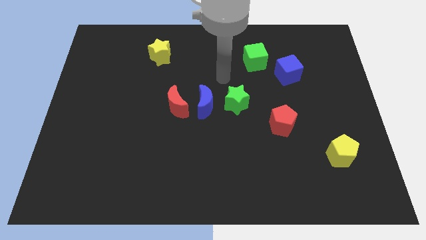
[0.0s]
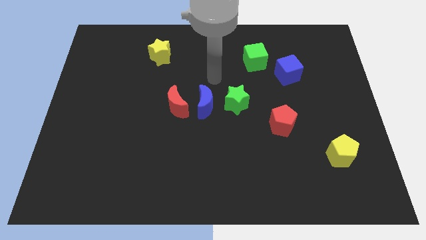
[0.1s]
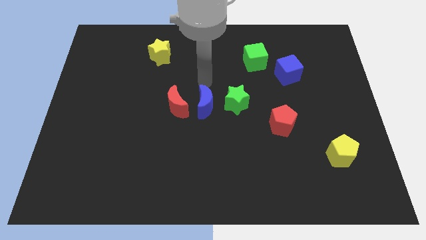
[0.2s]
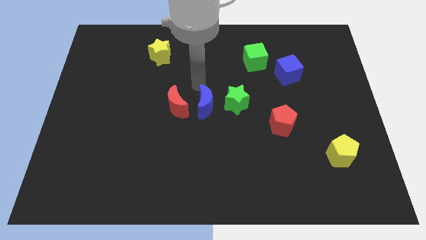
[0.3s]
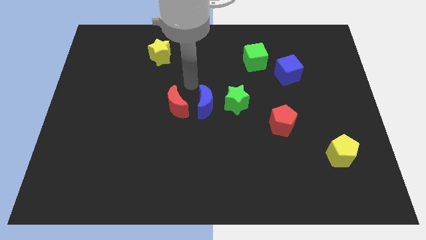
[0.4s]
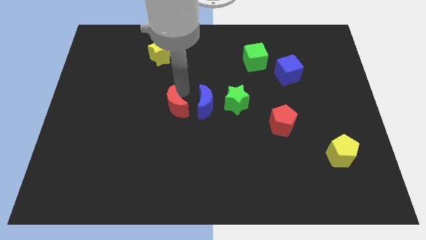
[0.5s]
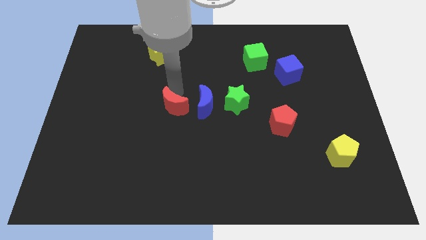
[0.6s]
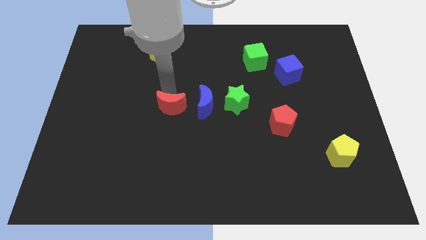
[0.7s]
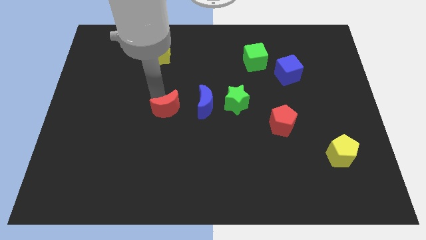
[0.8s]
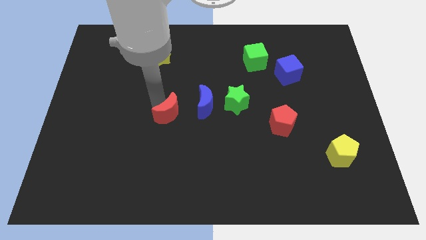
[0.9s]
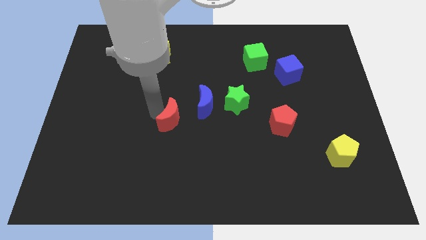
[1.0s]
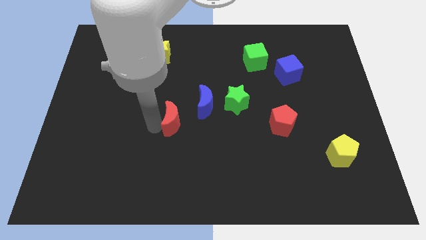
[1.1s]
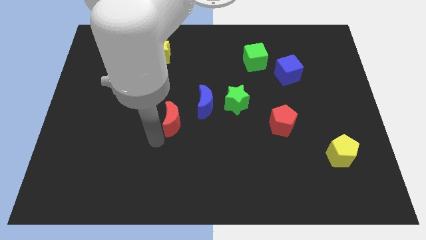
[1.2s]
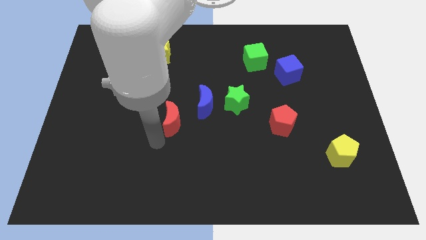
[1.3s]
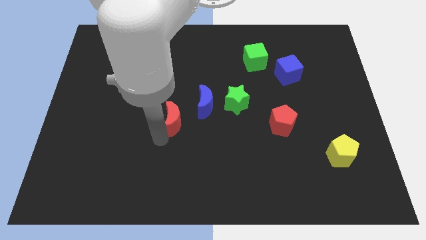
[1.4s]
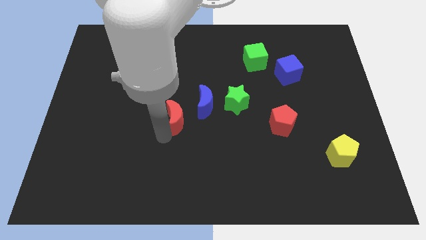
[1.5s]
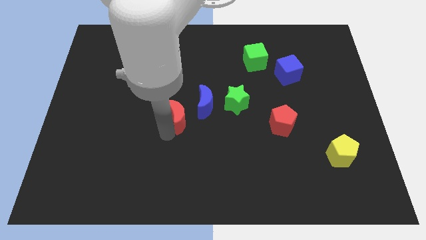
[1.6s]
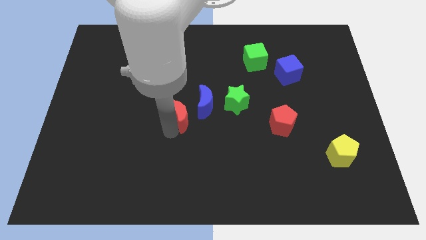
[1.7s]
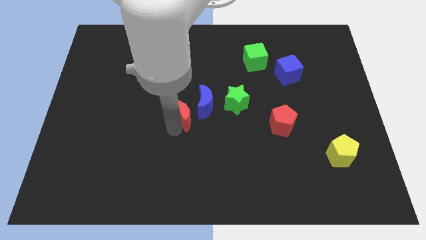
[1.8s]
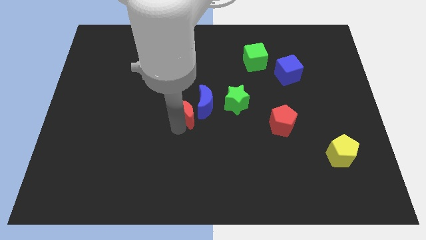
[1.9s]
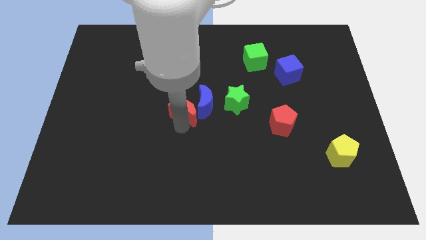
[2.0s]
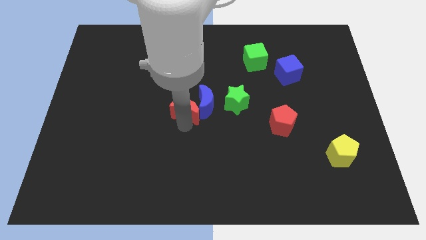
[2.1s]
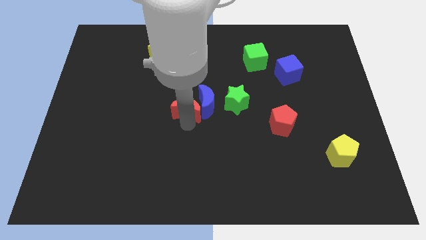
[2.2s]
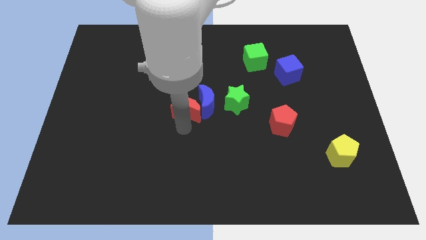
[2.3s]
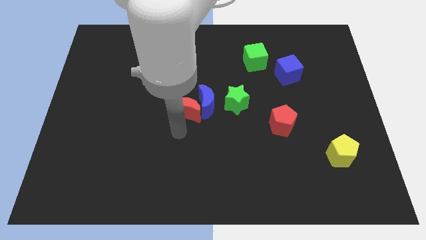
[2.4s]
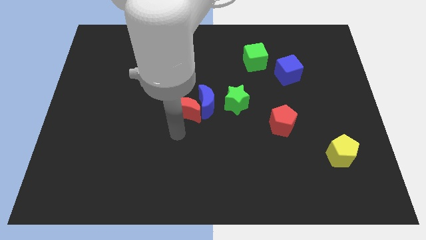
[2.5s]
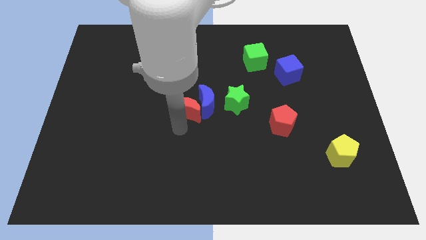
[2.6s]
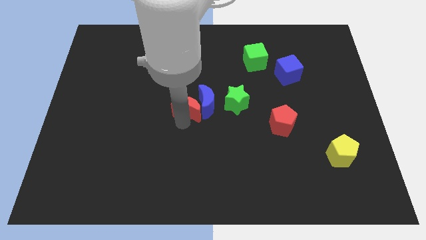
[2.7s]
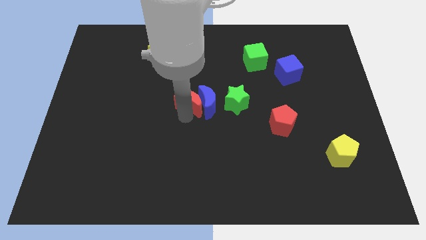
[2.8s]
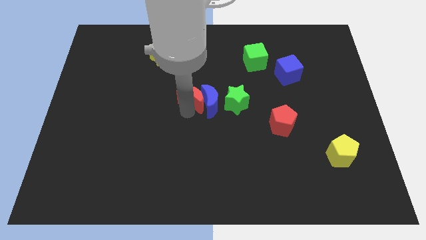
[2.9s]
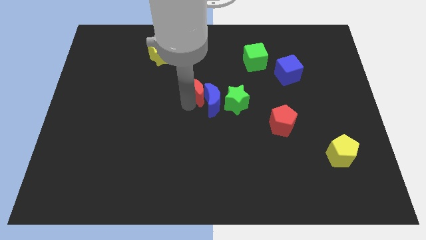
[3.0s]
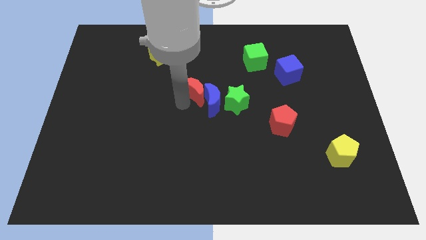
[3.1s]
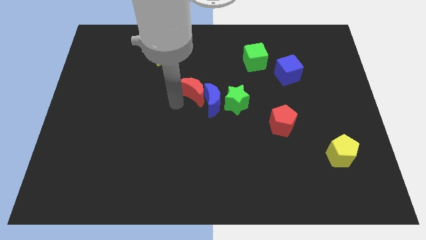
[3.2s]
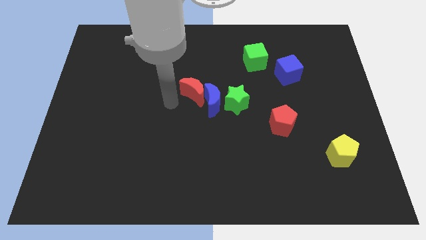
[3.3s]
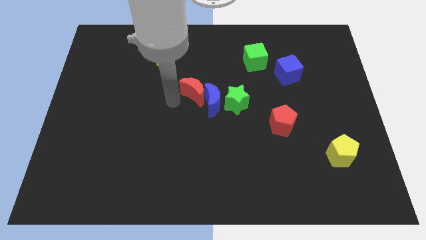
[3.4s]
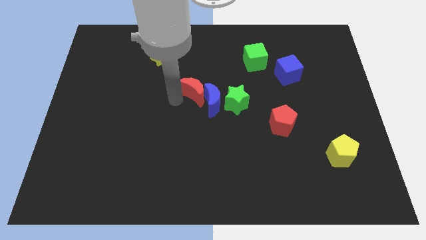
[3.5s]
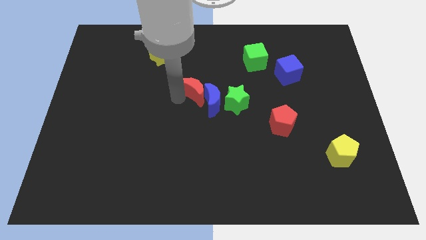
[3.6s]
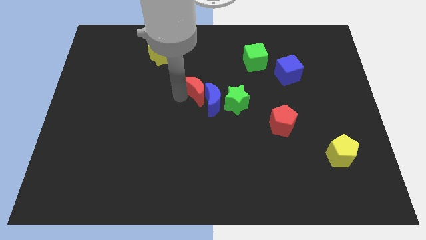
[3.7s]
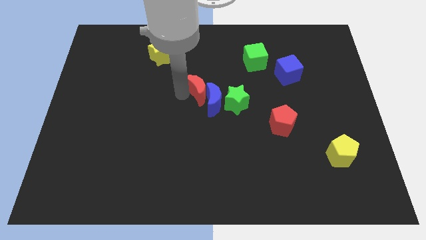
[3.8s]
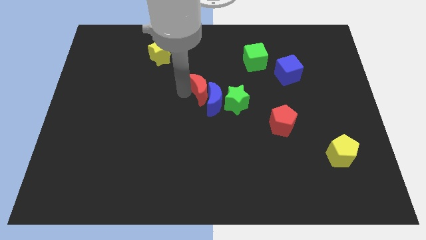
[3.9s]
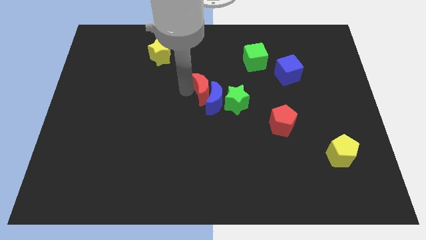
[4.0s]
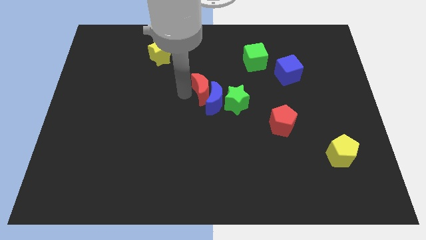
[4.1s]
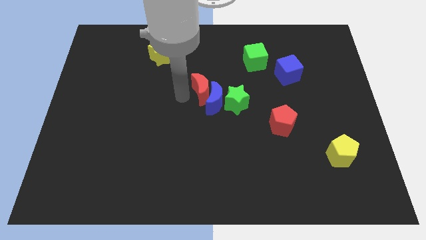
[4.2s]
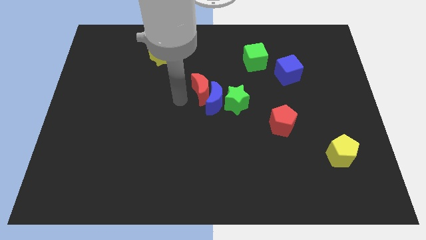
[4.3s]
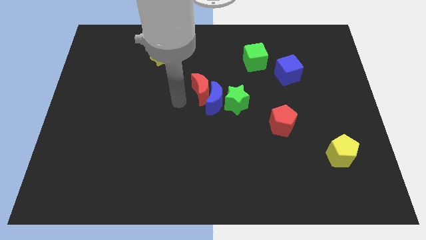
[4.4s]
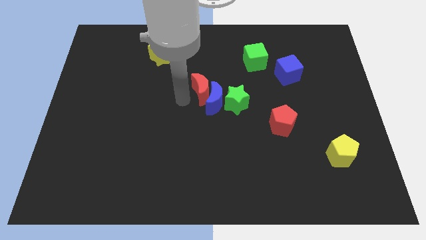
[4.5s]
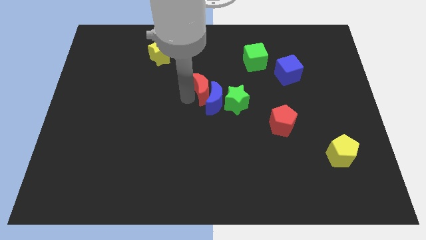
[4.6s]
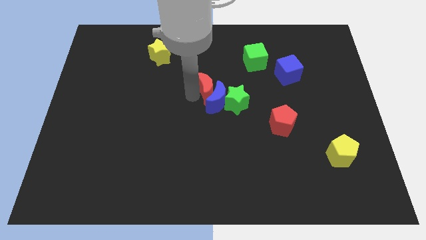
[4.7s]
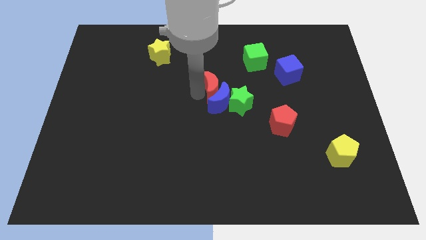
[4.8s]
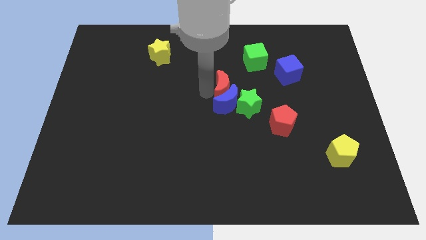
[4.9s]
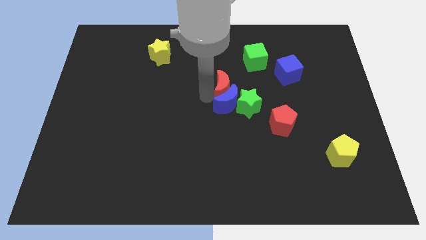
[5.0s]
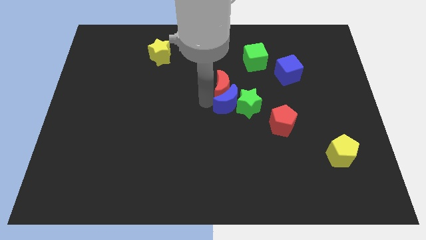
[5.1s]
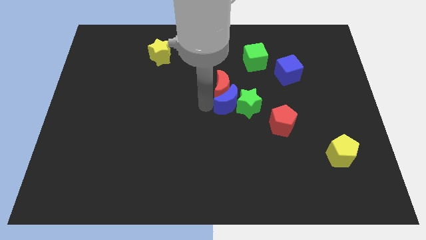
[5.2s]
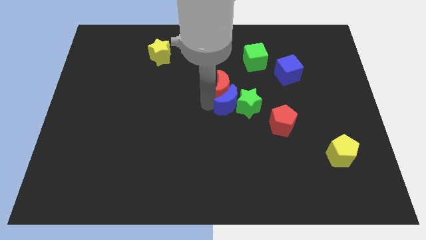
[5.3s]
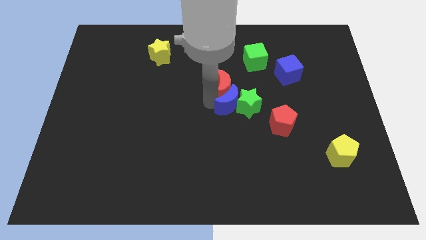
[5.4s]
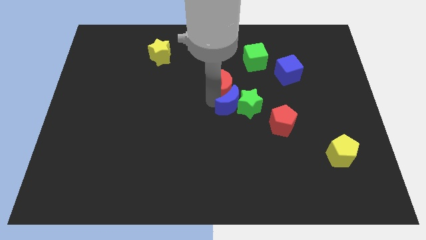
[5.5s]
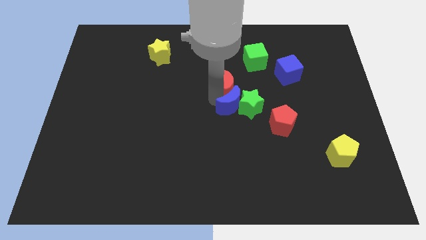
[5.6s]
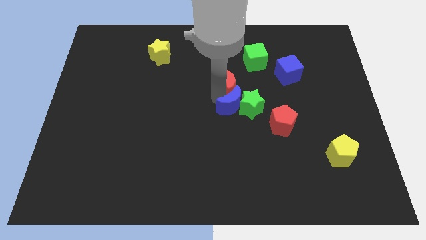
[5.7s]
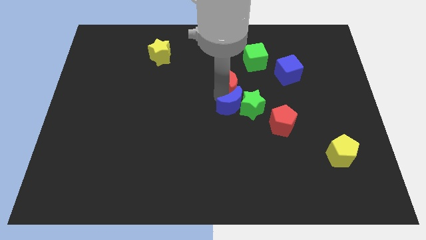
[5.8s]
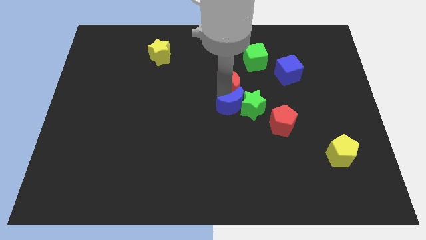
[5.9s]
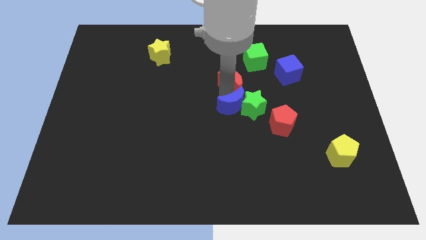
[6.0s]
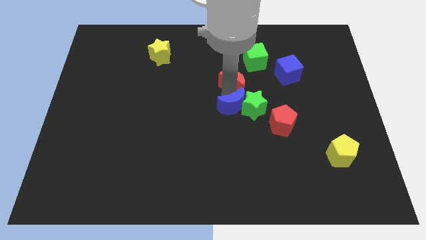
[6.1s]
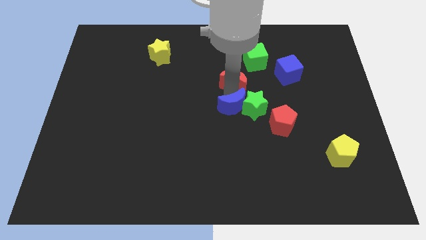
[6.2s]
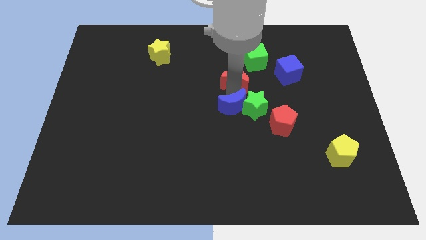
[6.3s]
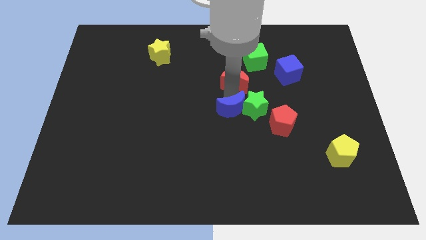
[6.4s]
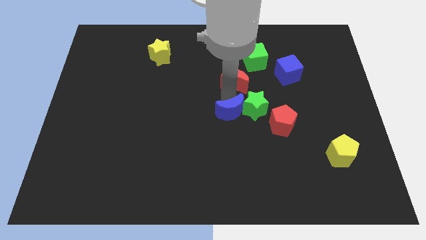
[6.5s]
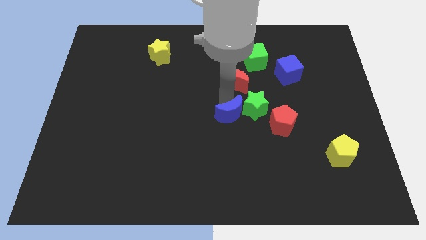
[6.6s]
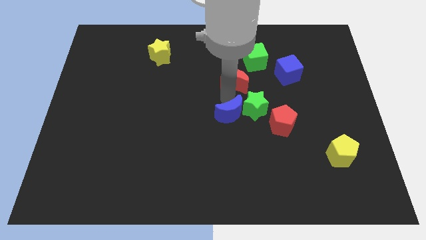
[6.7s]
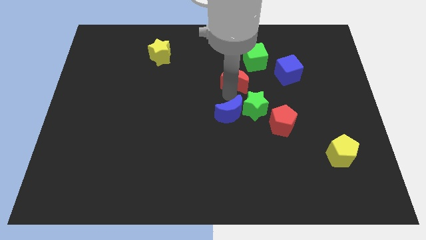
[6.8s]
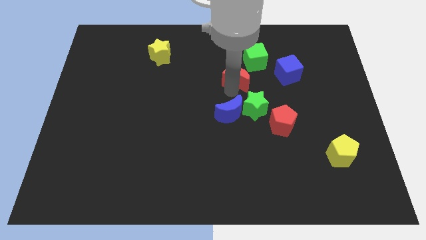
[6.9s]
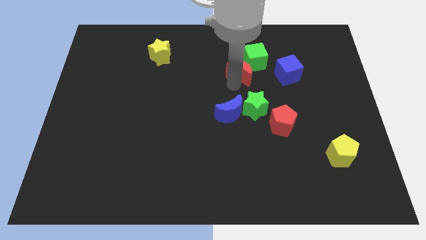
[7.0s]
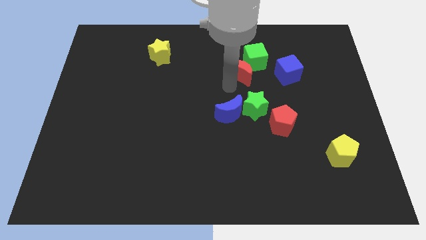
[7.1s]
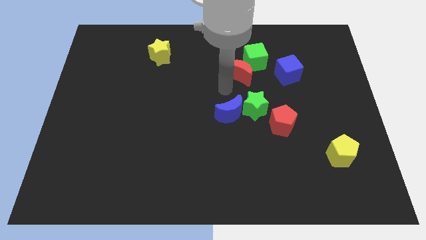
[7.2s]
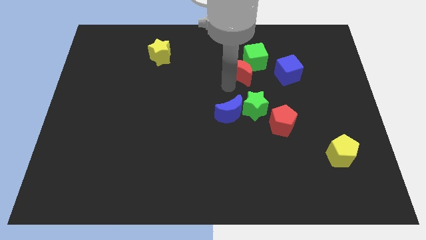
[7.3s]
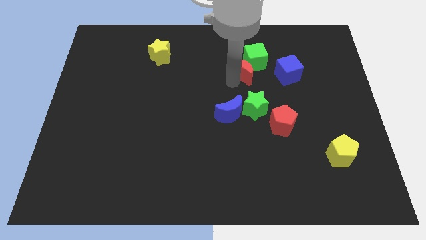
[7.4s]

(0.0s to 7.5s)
move the red moon close to the green cube

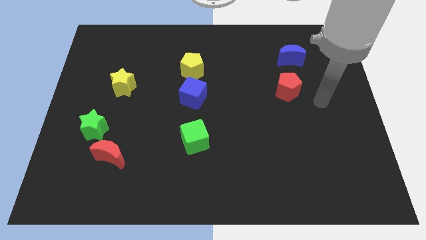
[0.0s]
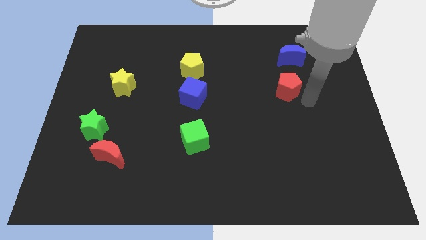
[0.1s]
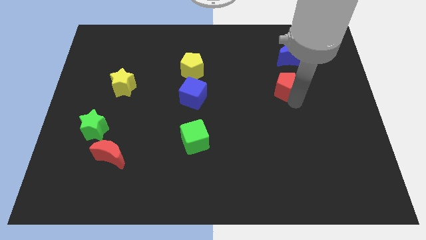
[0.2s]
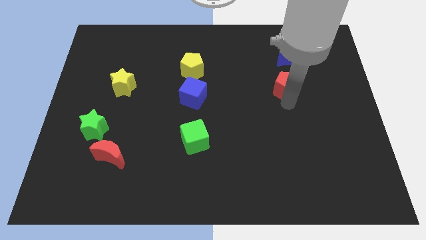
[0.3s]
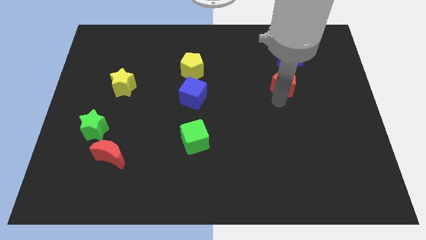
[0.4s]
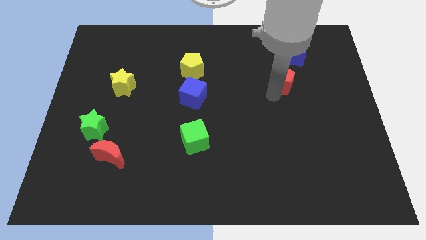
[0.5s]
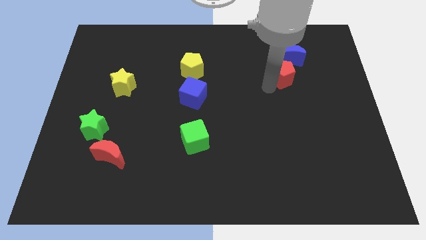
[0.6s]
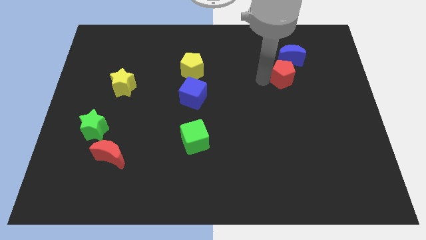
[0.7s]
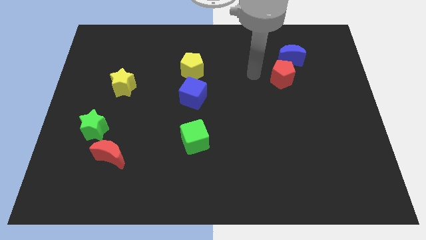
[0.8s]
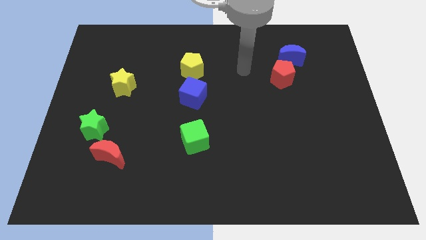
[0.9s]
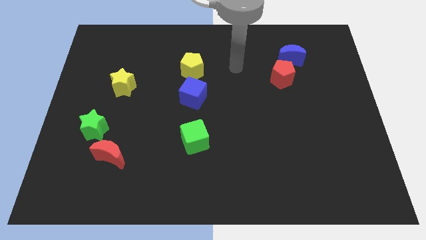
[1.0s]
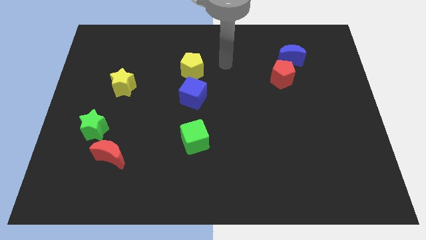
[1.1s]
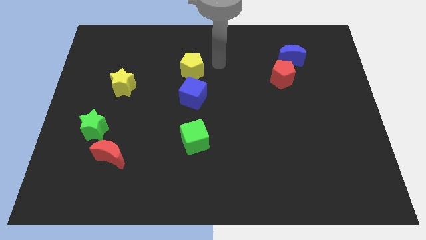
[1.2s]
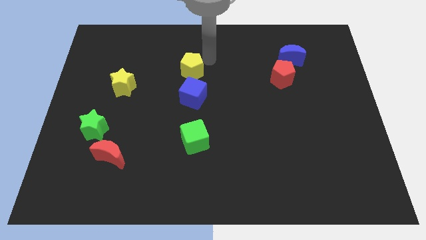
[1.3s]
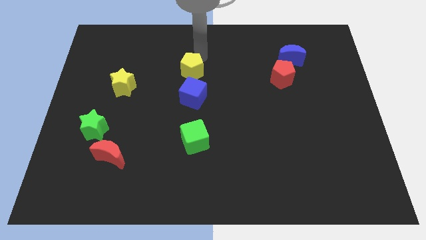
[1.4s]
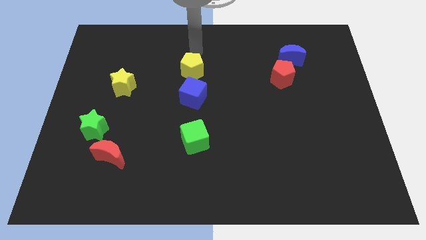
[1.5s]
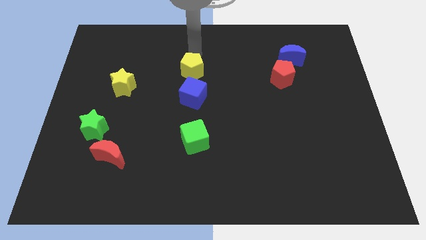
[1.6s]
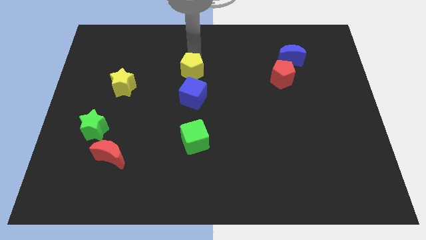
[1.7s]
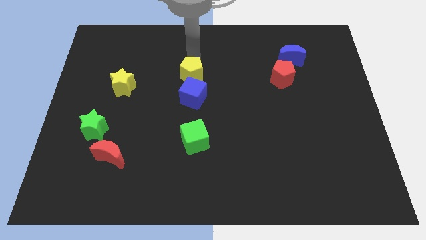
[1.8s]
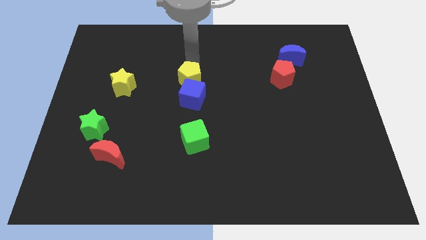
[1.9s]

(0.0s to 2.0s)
slide the yellow pentagon towards the blue cube
